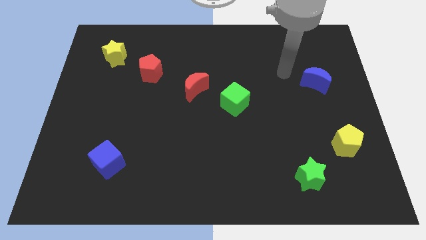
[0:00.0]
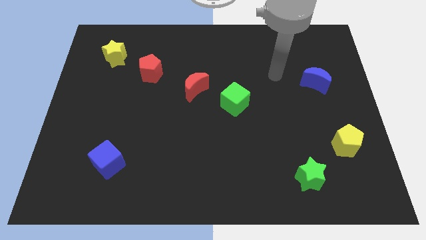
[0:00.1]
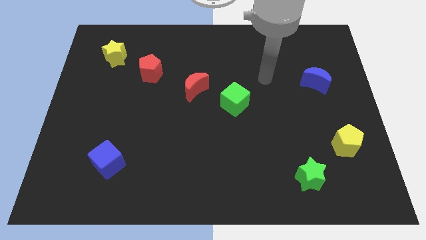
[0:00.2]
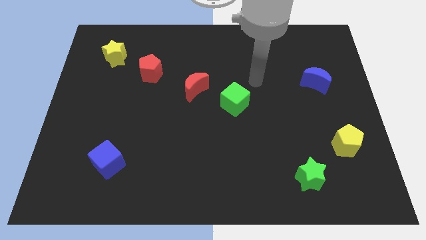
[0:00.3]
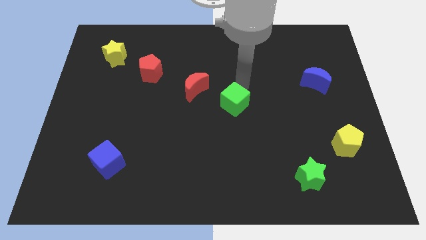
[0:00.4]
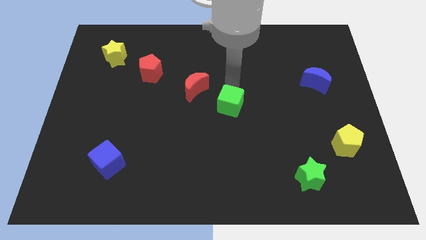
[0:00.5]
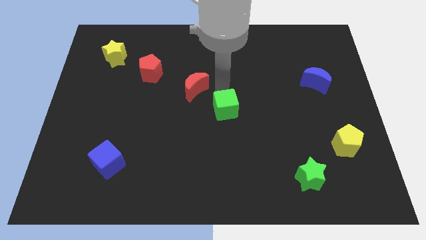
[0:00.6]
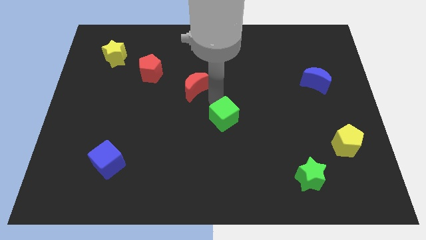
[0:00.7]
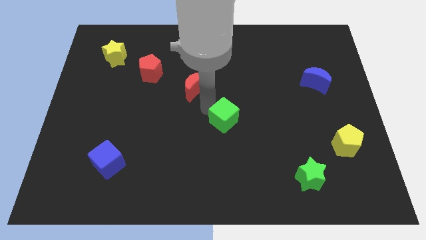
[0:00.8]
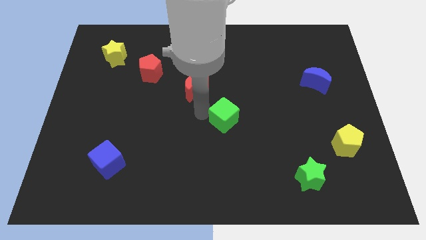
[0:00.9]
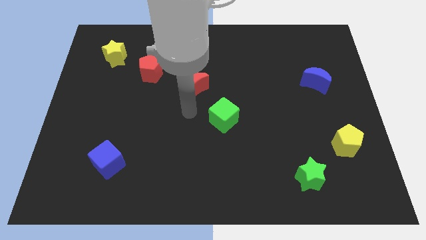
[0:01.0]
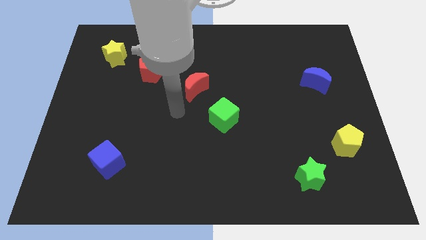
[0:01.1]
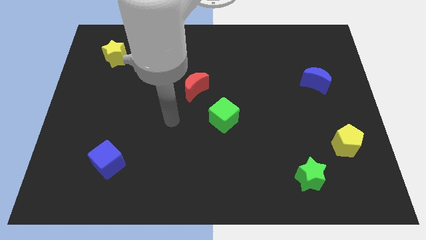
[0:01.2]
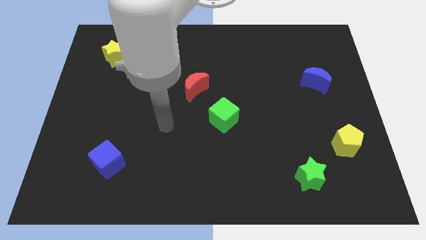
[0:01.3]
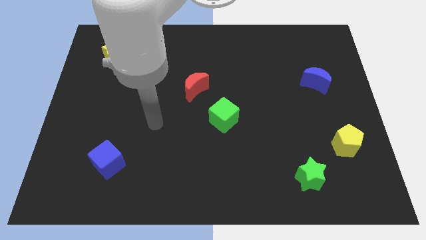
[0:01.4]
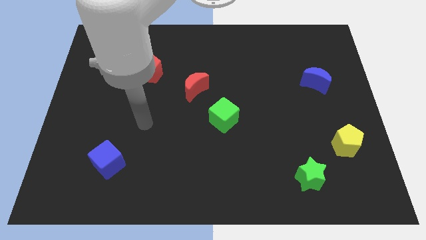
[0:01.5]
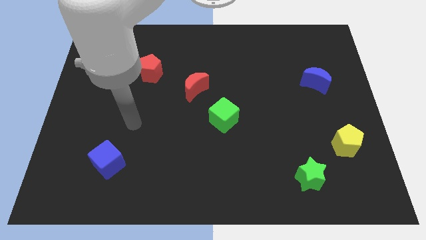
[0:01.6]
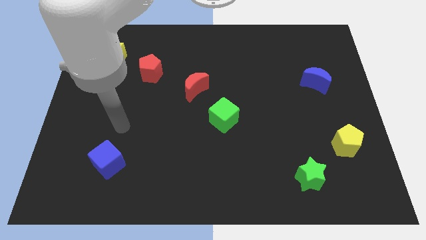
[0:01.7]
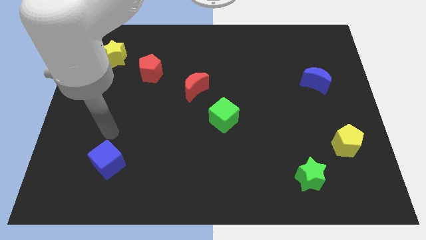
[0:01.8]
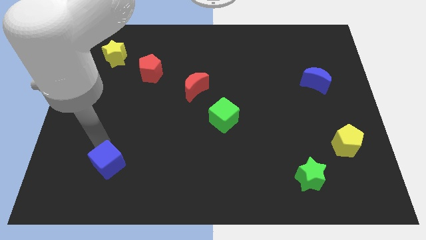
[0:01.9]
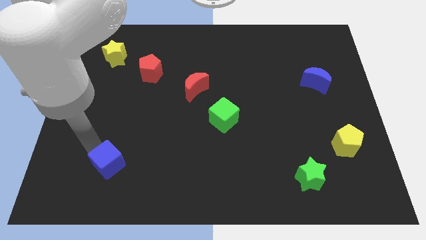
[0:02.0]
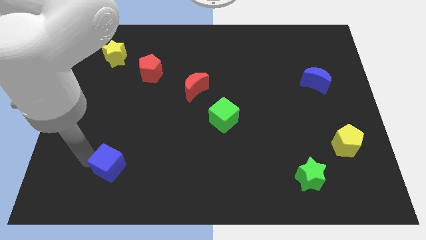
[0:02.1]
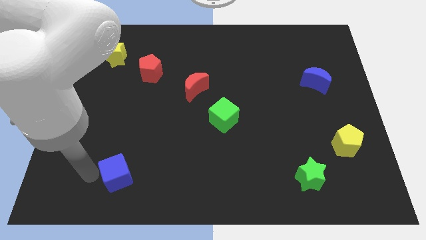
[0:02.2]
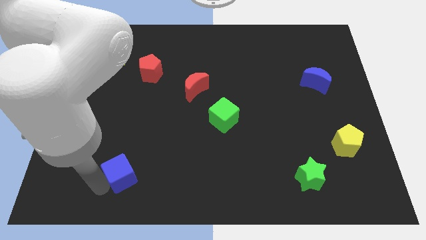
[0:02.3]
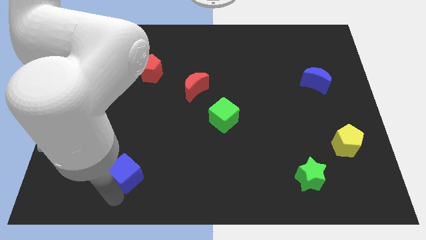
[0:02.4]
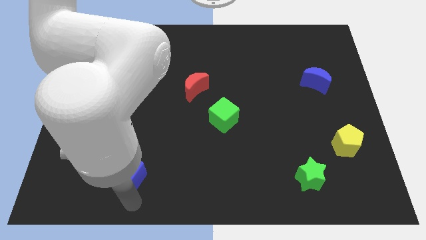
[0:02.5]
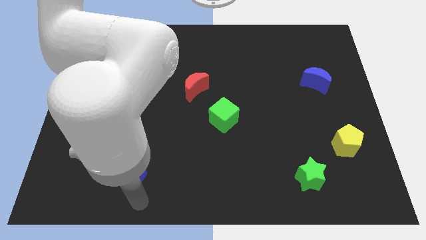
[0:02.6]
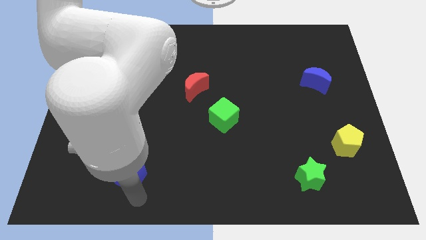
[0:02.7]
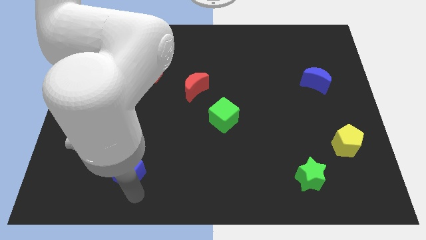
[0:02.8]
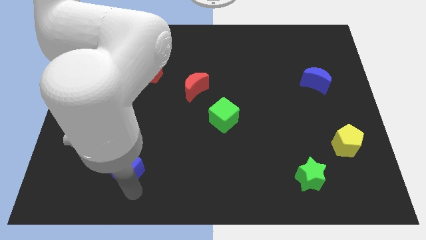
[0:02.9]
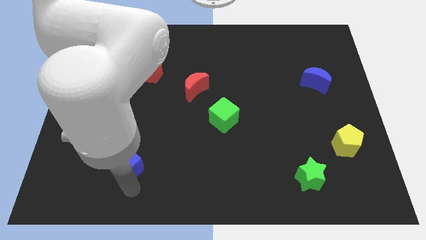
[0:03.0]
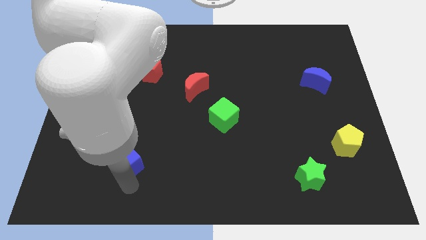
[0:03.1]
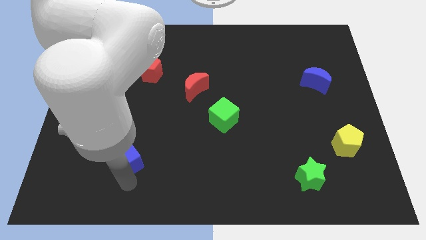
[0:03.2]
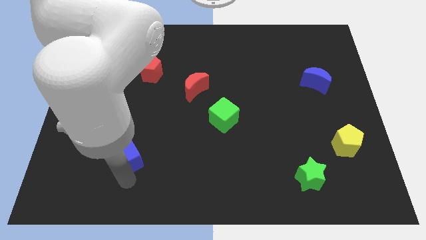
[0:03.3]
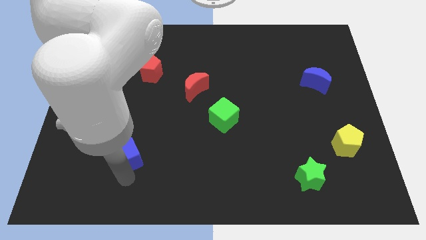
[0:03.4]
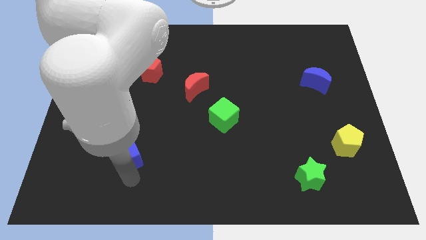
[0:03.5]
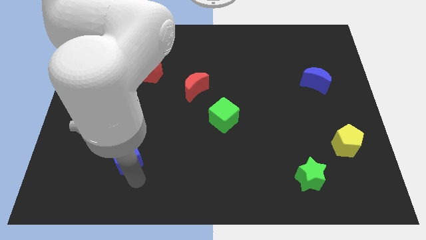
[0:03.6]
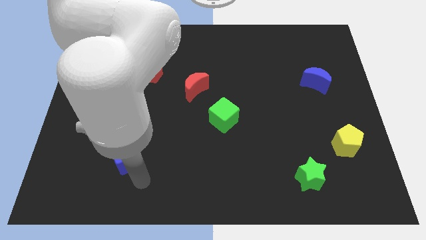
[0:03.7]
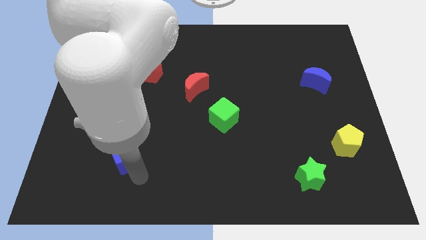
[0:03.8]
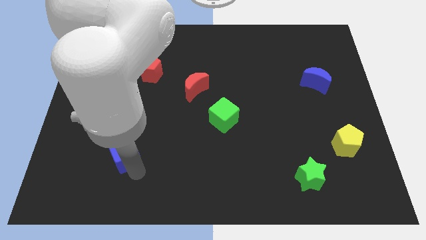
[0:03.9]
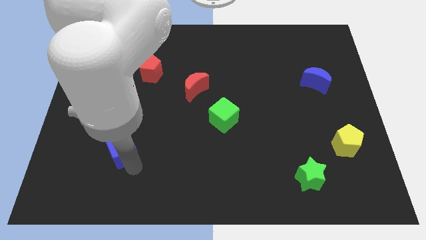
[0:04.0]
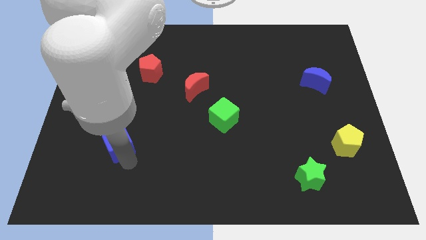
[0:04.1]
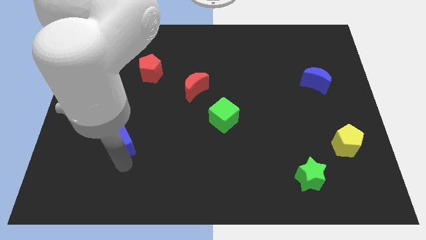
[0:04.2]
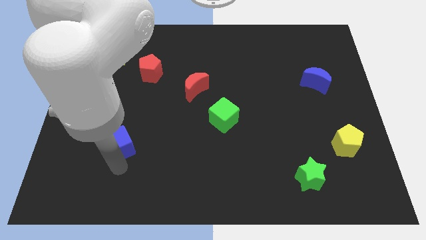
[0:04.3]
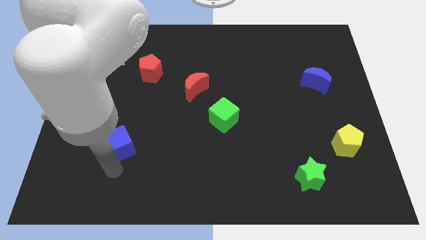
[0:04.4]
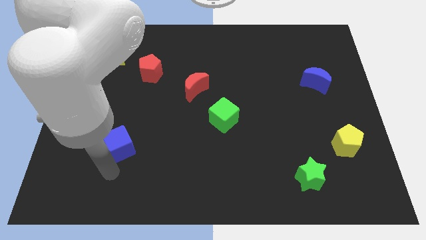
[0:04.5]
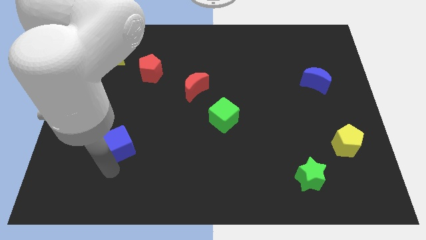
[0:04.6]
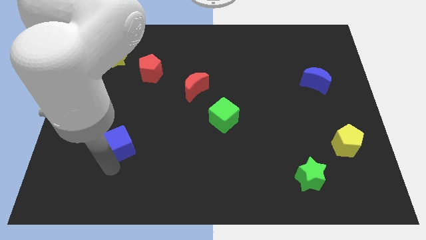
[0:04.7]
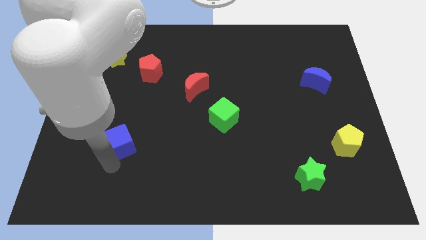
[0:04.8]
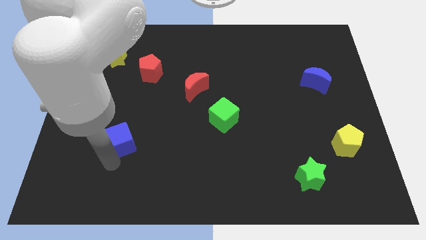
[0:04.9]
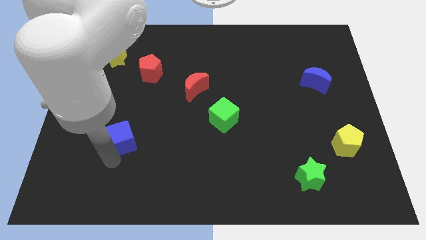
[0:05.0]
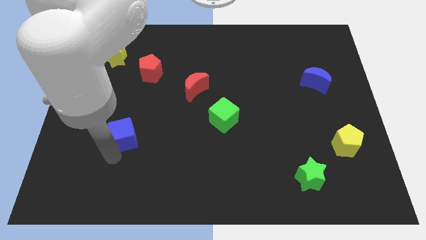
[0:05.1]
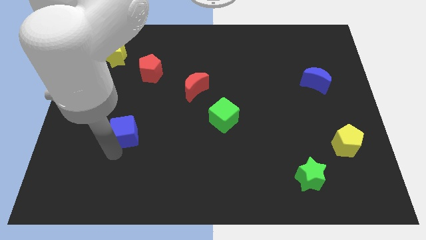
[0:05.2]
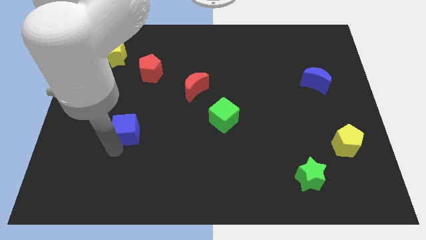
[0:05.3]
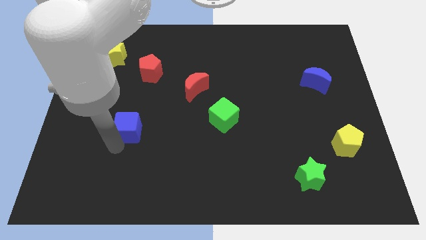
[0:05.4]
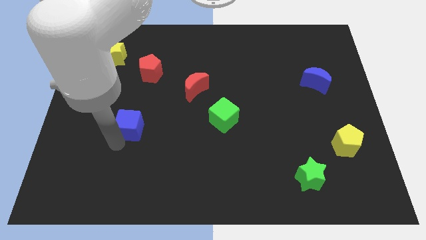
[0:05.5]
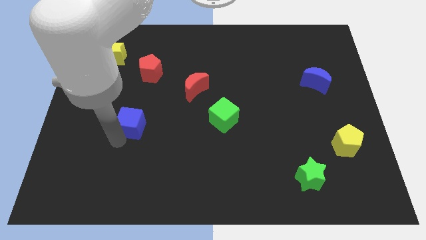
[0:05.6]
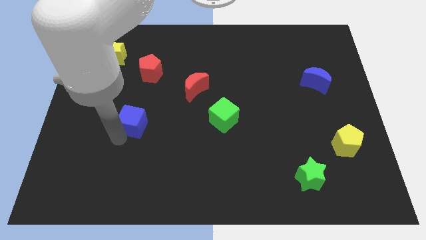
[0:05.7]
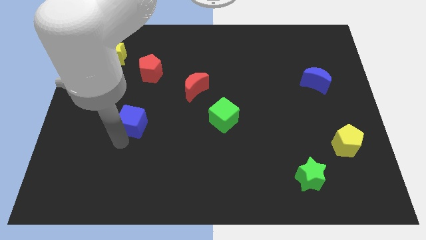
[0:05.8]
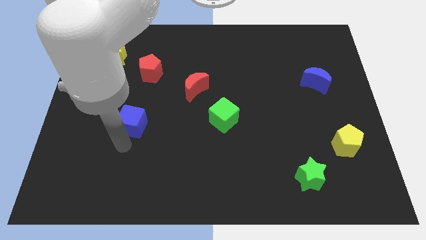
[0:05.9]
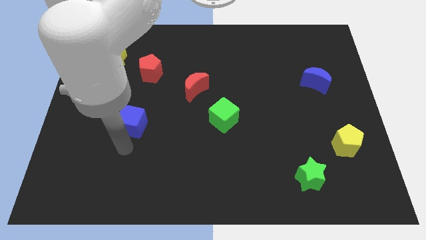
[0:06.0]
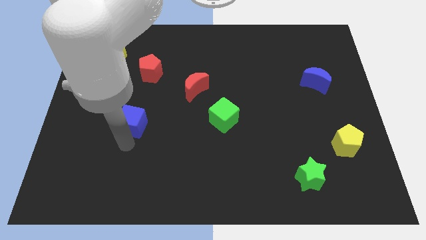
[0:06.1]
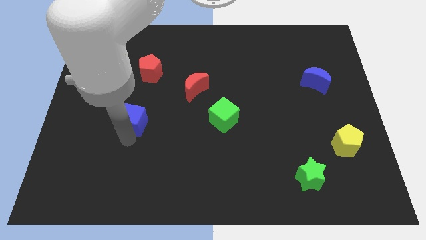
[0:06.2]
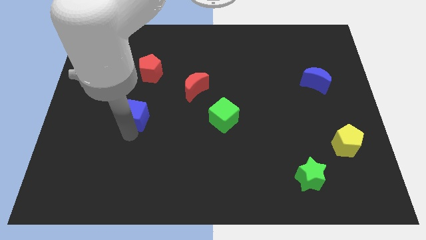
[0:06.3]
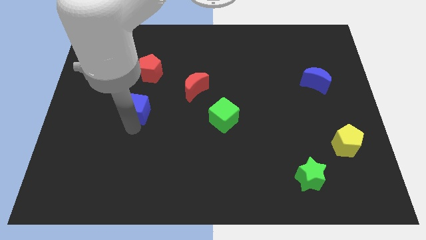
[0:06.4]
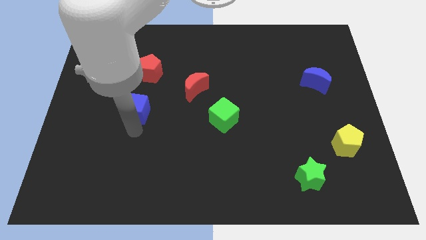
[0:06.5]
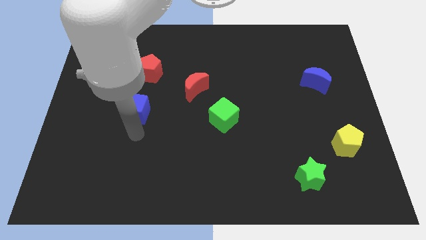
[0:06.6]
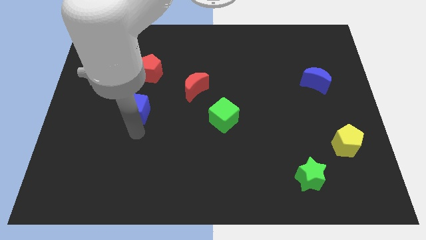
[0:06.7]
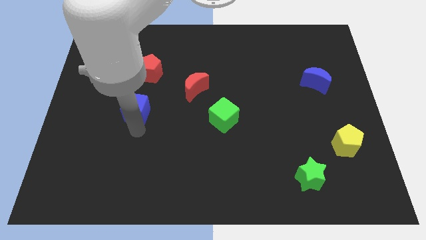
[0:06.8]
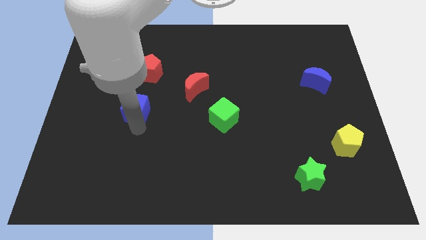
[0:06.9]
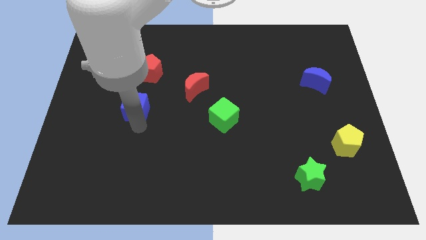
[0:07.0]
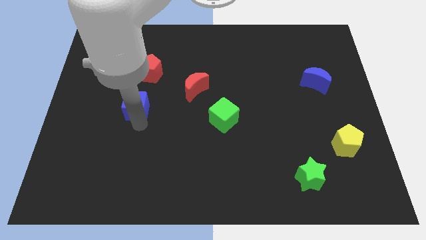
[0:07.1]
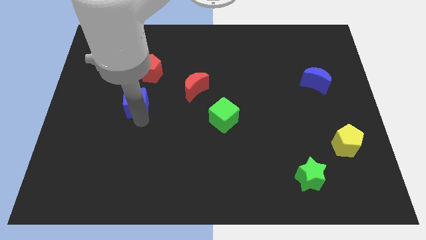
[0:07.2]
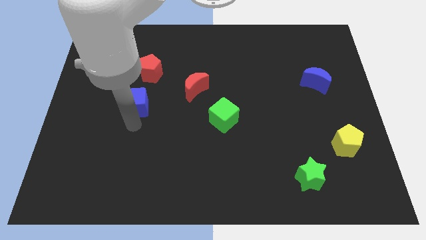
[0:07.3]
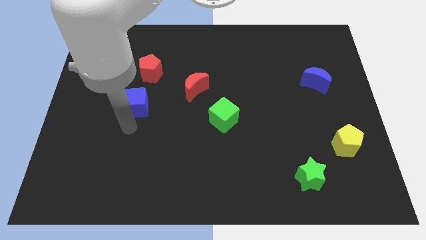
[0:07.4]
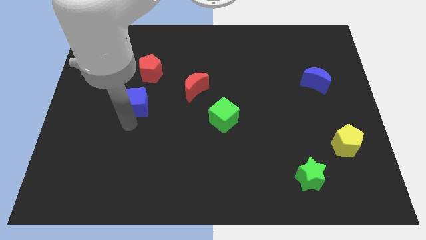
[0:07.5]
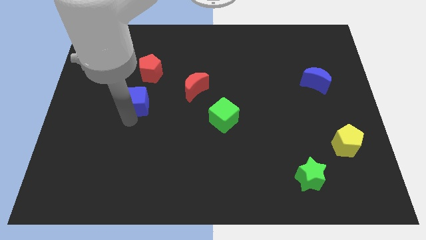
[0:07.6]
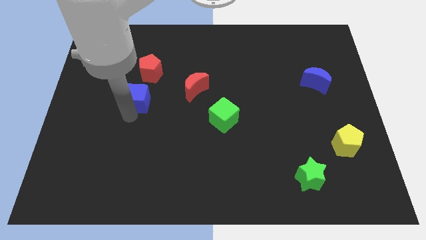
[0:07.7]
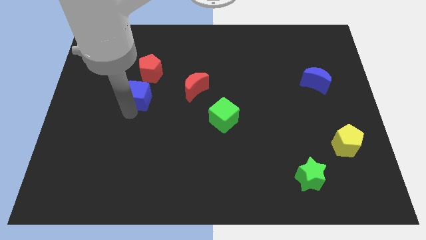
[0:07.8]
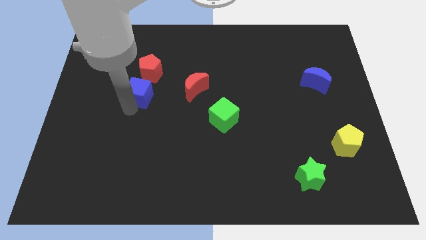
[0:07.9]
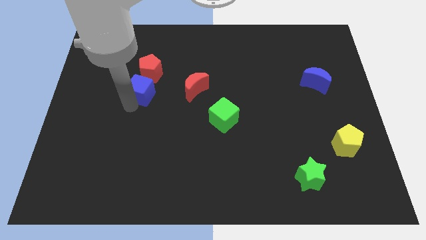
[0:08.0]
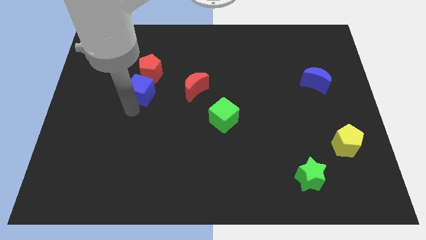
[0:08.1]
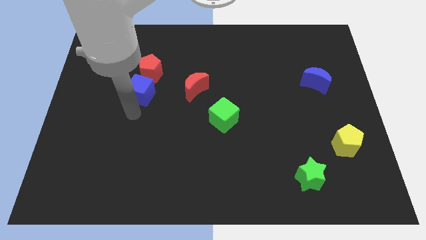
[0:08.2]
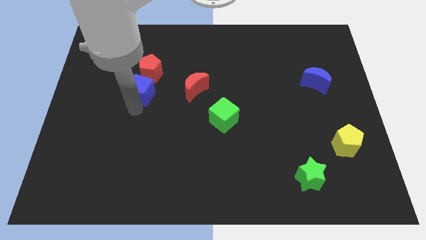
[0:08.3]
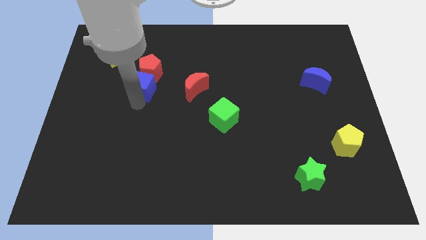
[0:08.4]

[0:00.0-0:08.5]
slide the blue cube close to the red pentagon
